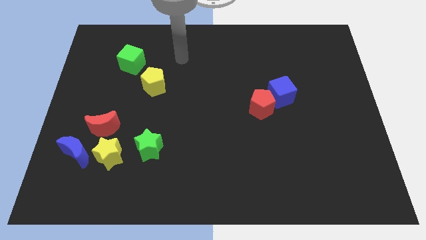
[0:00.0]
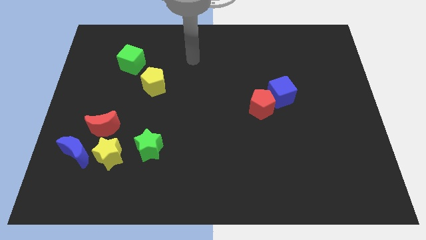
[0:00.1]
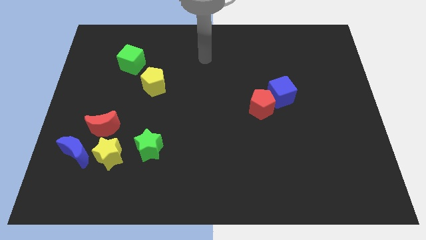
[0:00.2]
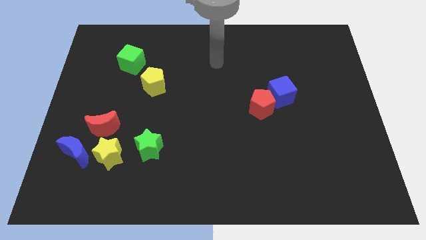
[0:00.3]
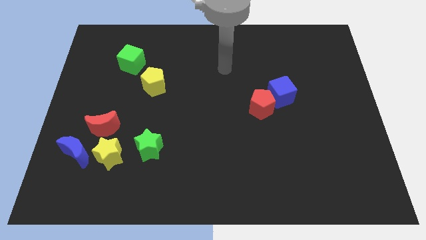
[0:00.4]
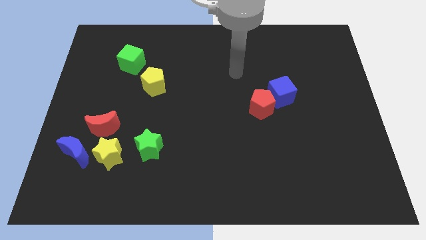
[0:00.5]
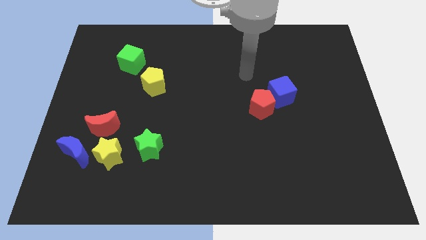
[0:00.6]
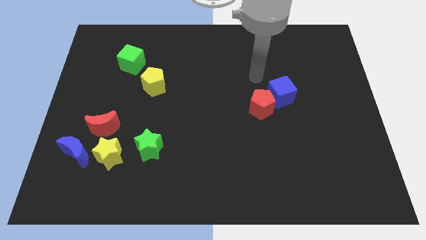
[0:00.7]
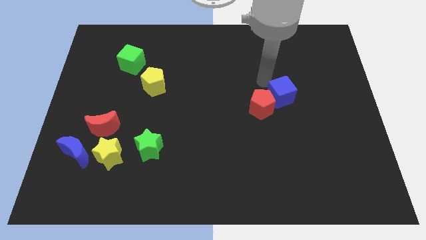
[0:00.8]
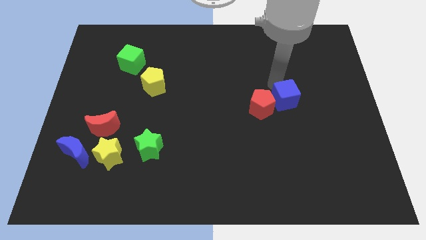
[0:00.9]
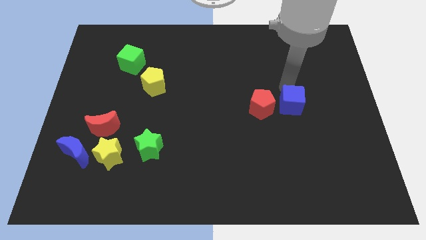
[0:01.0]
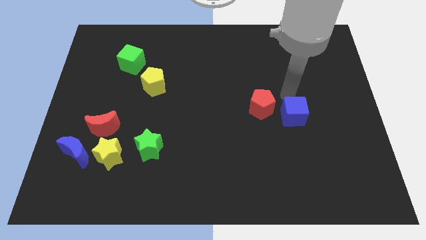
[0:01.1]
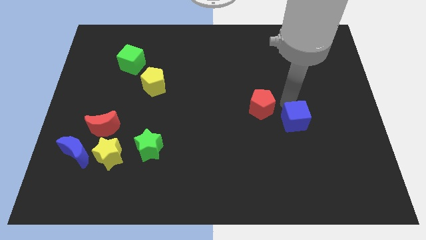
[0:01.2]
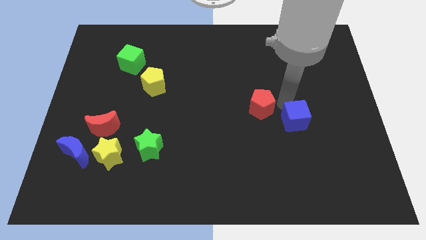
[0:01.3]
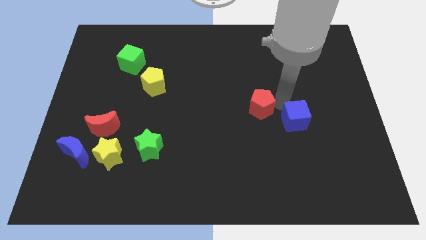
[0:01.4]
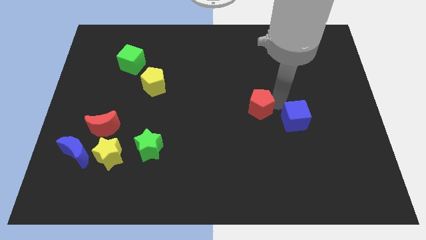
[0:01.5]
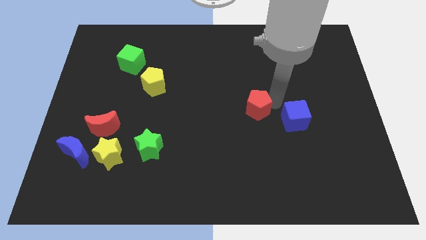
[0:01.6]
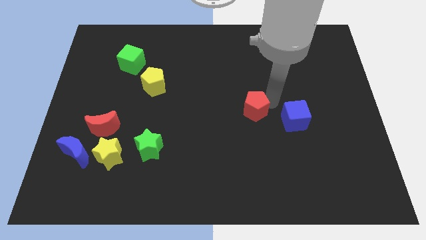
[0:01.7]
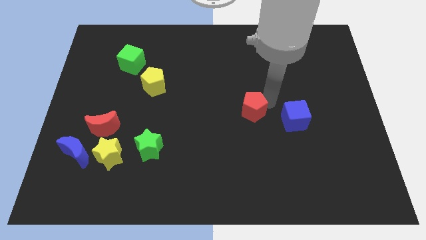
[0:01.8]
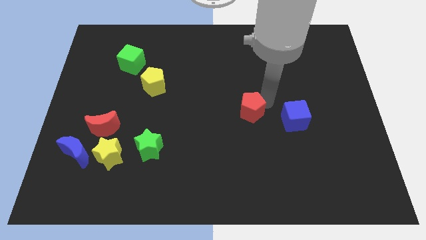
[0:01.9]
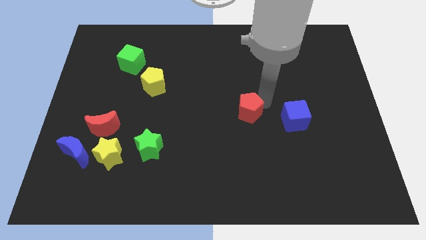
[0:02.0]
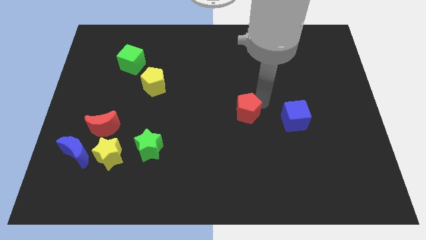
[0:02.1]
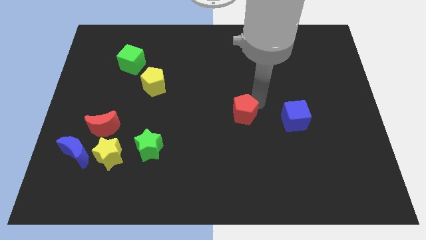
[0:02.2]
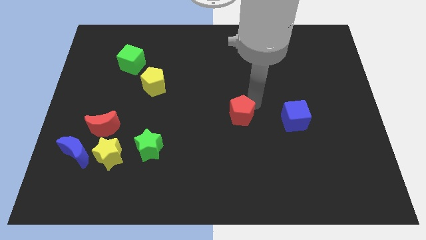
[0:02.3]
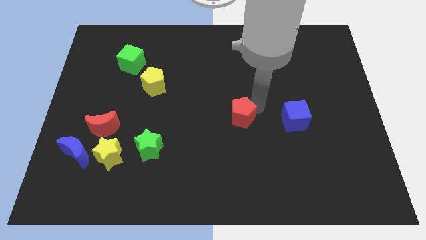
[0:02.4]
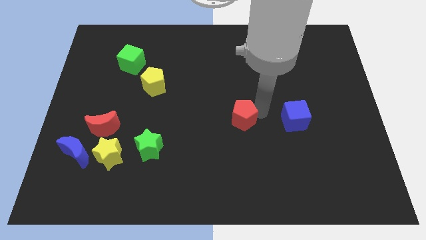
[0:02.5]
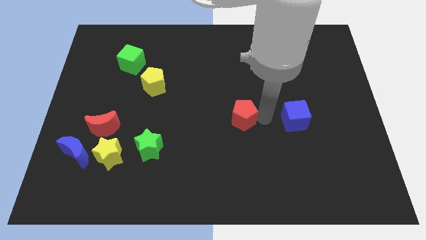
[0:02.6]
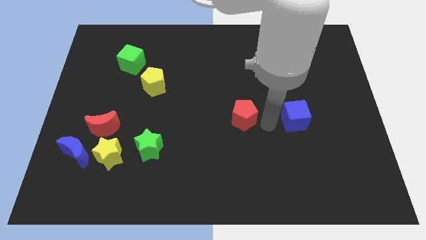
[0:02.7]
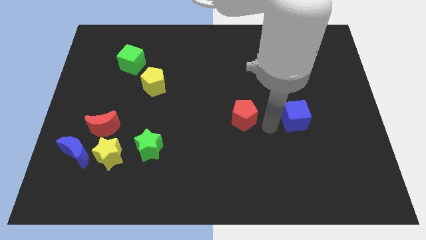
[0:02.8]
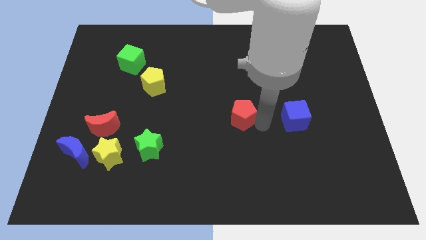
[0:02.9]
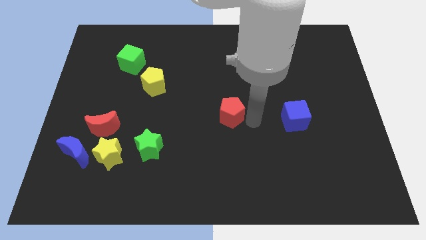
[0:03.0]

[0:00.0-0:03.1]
slide the red pentagon a little left

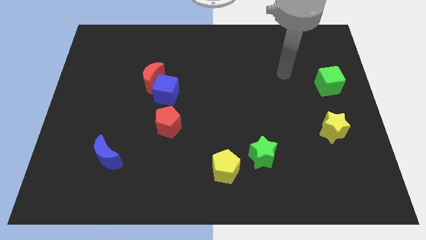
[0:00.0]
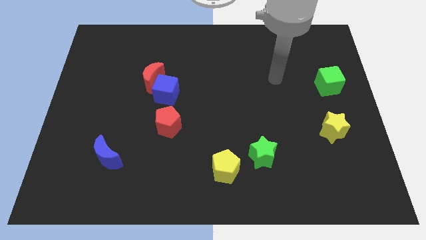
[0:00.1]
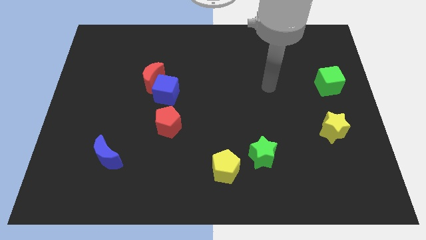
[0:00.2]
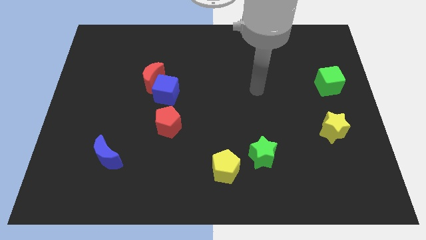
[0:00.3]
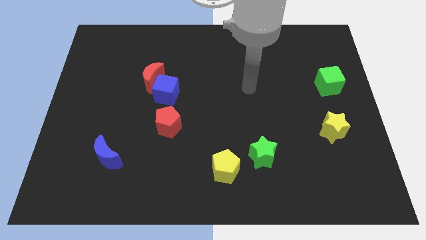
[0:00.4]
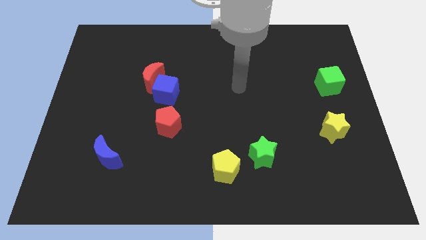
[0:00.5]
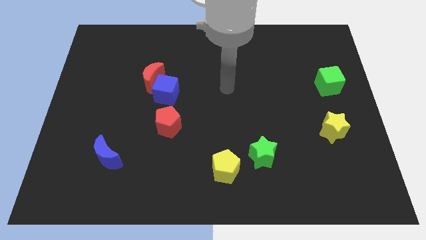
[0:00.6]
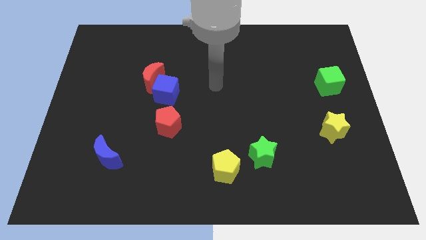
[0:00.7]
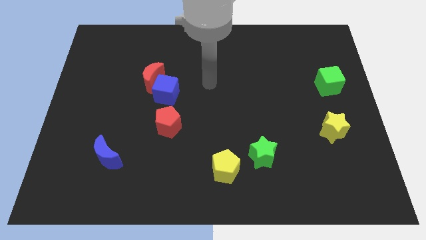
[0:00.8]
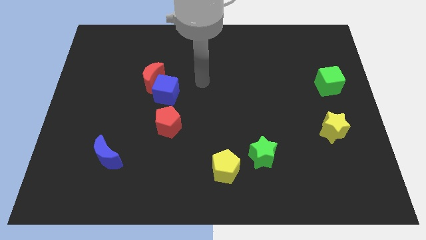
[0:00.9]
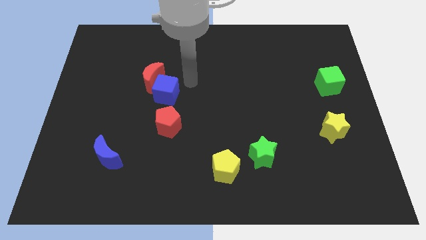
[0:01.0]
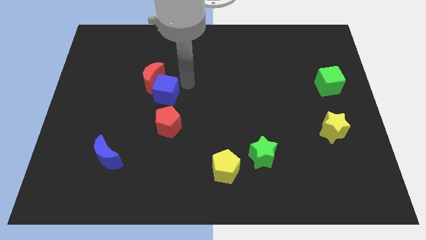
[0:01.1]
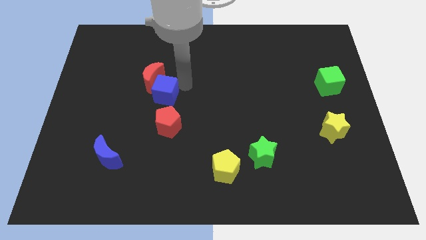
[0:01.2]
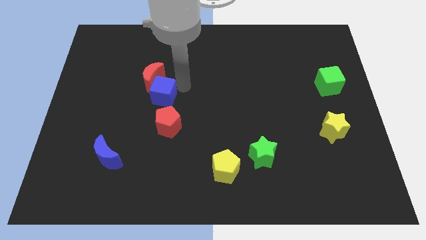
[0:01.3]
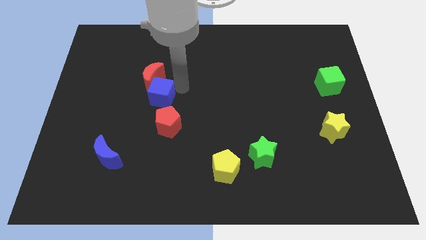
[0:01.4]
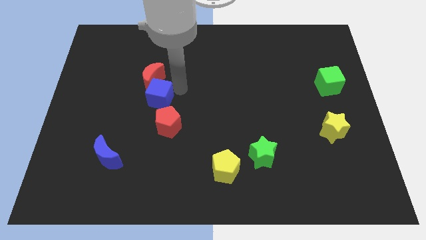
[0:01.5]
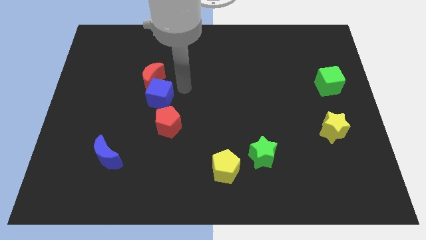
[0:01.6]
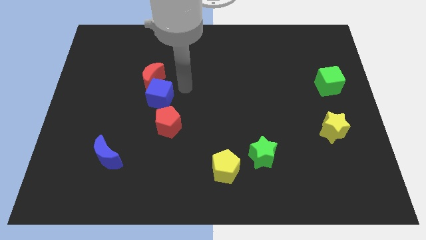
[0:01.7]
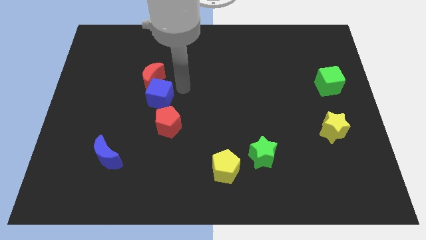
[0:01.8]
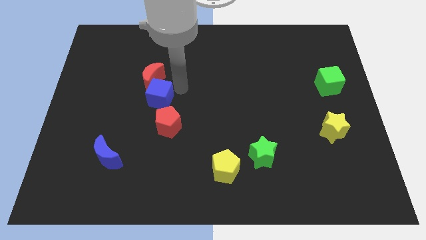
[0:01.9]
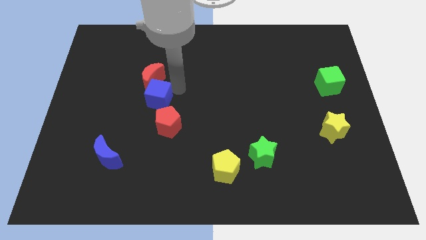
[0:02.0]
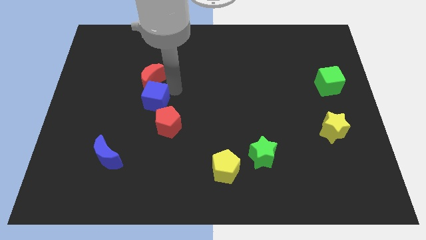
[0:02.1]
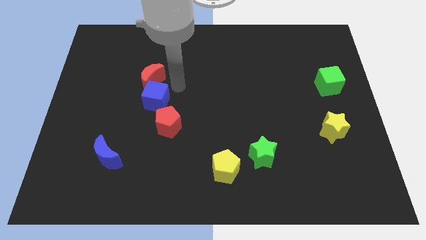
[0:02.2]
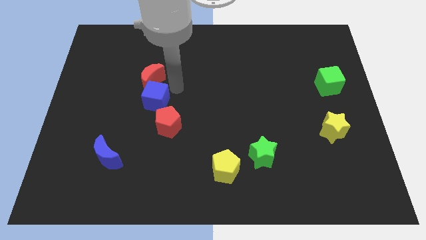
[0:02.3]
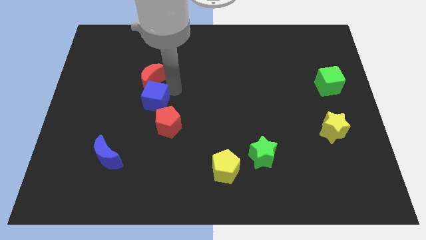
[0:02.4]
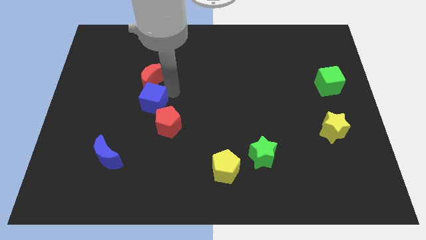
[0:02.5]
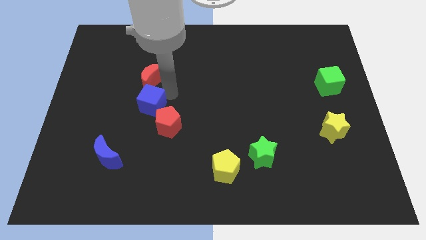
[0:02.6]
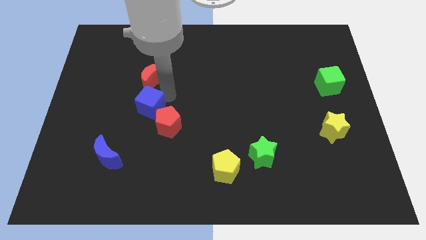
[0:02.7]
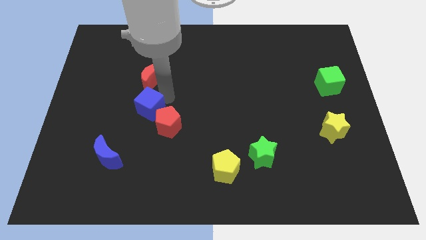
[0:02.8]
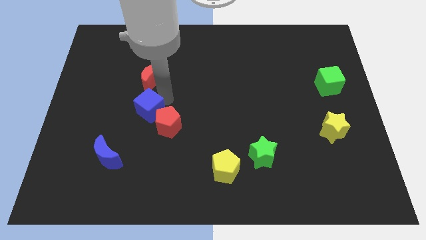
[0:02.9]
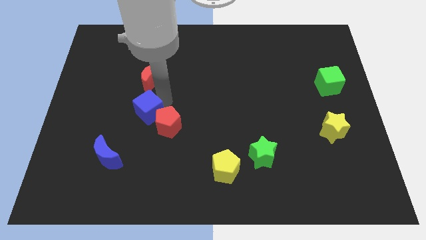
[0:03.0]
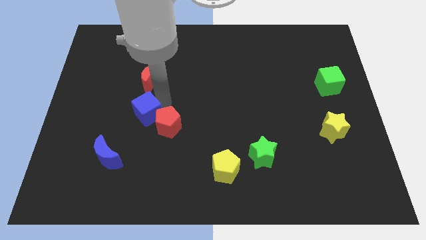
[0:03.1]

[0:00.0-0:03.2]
slide the blue cube a little bit diagonally down and to the left

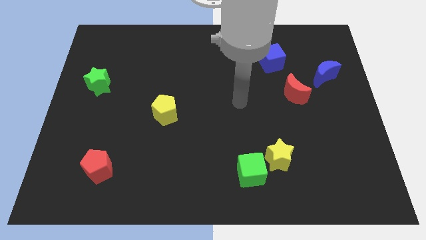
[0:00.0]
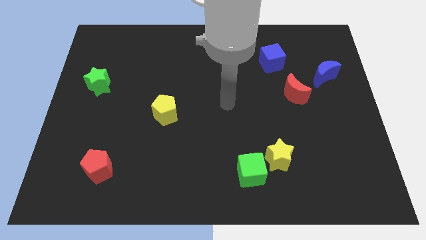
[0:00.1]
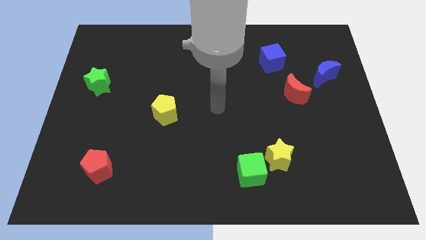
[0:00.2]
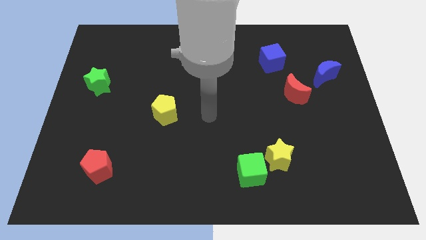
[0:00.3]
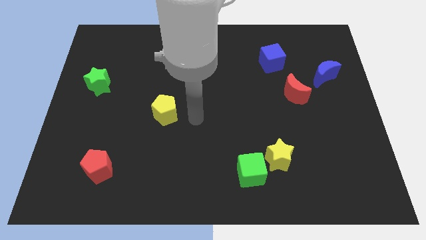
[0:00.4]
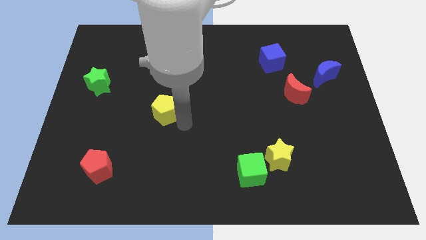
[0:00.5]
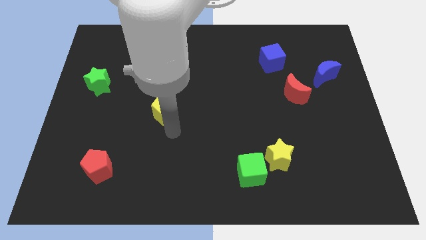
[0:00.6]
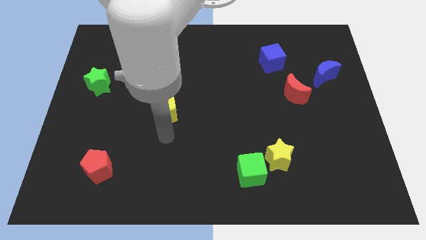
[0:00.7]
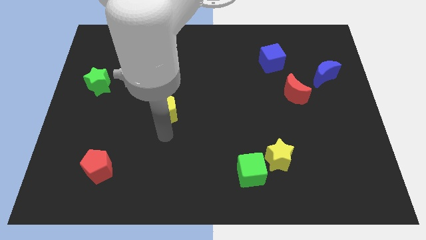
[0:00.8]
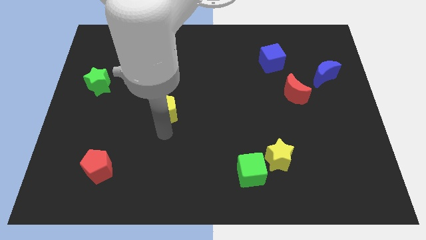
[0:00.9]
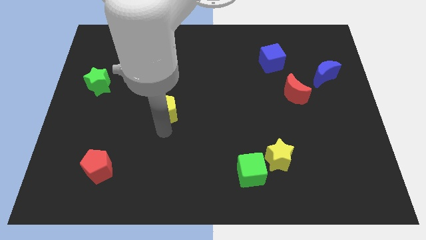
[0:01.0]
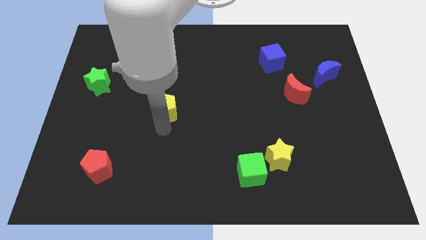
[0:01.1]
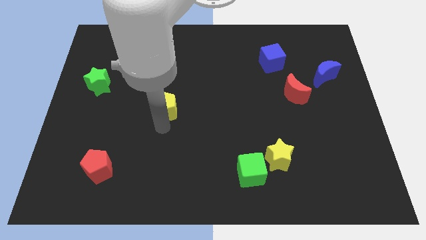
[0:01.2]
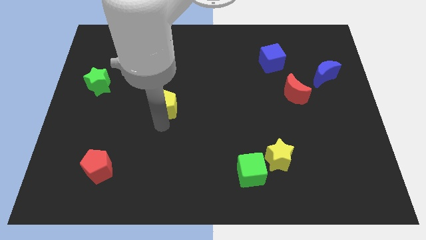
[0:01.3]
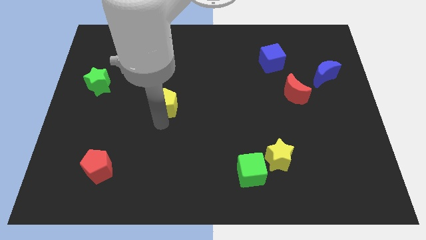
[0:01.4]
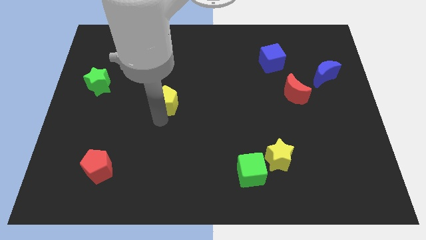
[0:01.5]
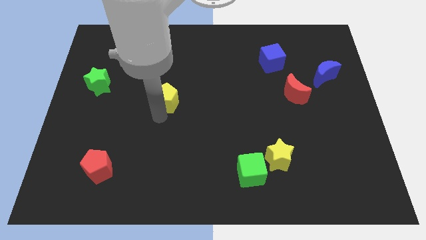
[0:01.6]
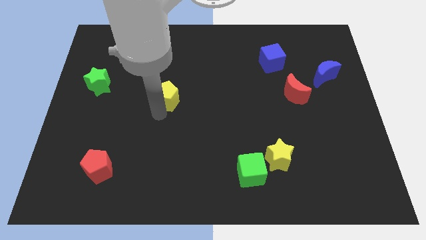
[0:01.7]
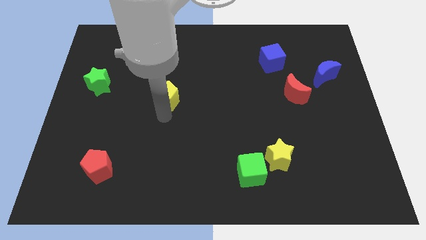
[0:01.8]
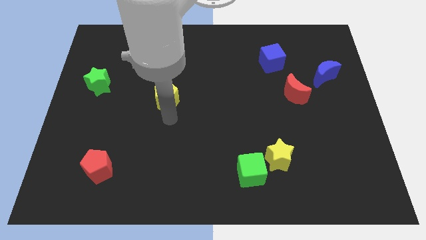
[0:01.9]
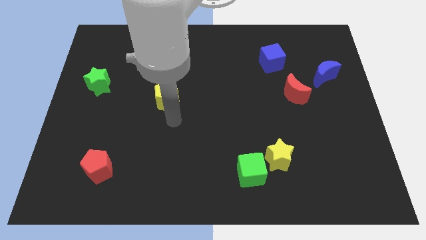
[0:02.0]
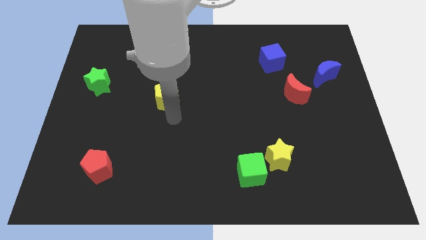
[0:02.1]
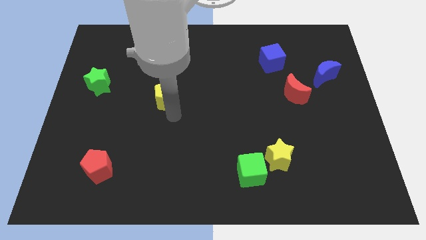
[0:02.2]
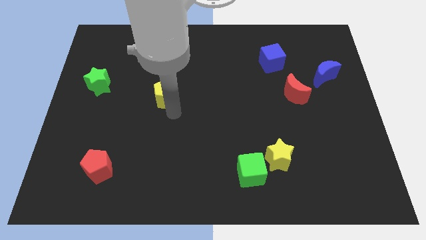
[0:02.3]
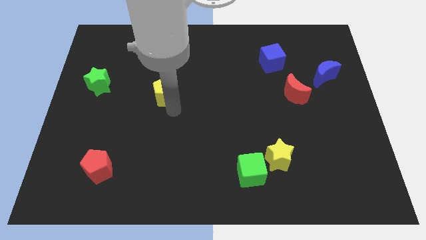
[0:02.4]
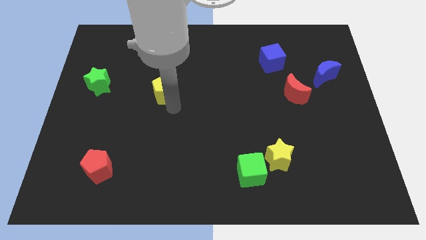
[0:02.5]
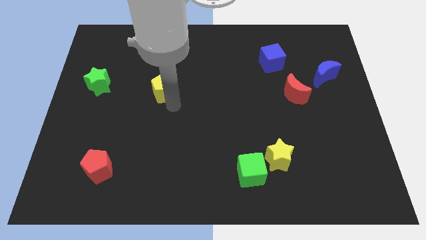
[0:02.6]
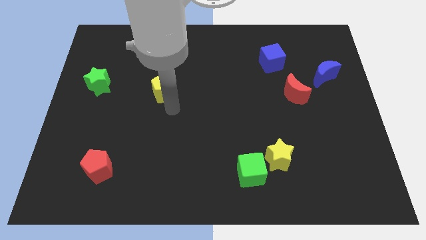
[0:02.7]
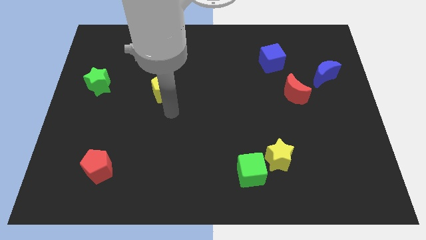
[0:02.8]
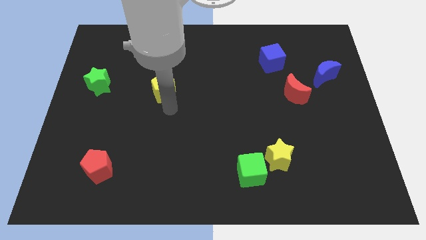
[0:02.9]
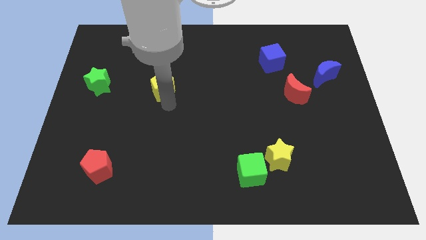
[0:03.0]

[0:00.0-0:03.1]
move the yellow pentagon slightly up
